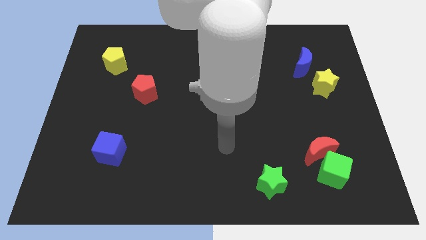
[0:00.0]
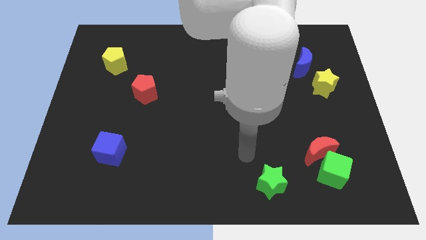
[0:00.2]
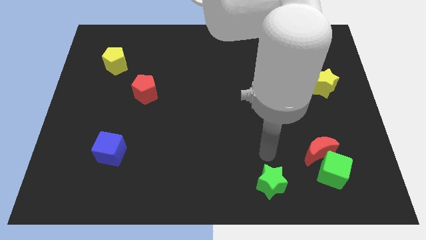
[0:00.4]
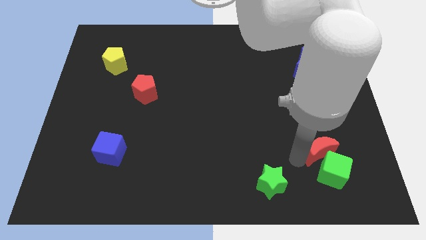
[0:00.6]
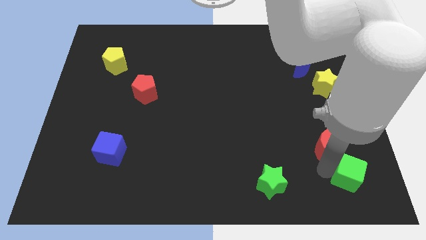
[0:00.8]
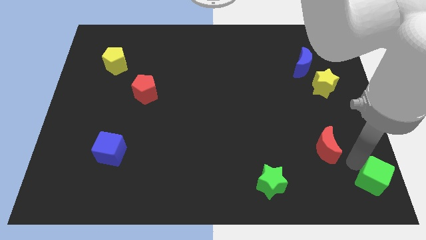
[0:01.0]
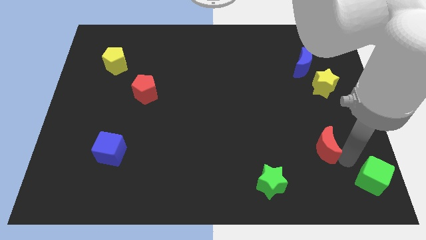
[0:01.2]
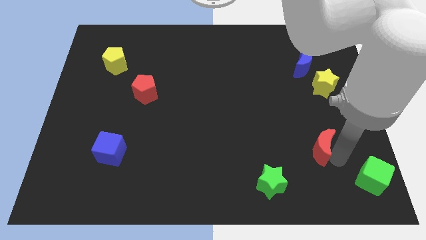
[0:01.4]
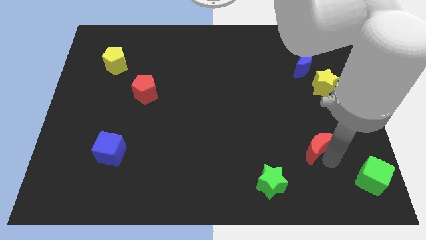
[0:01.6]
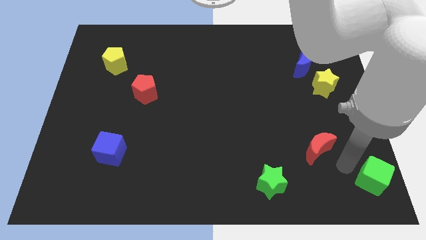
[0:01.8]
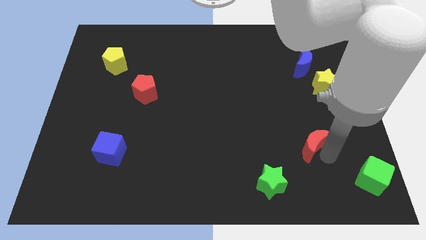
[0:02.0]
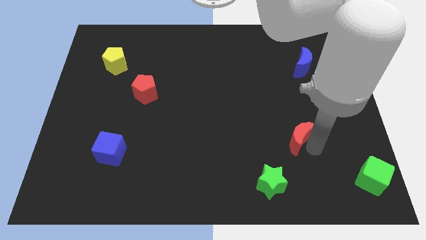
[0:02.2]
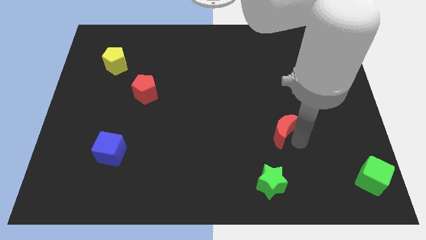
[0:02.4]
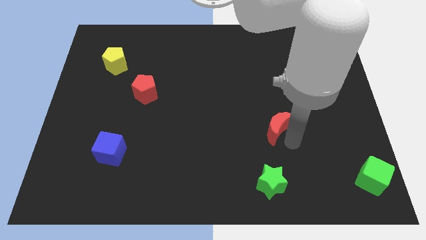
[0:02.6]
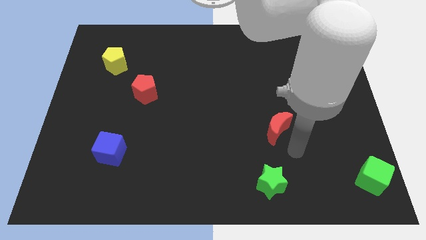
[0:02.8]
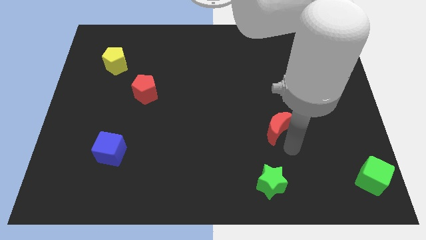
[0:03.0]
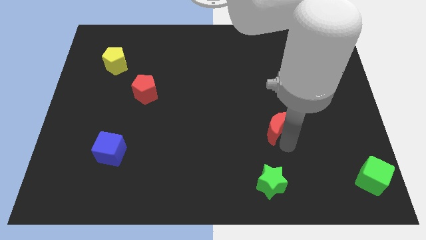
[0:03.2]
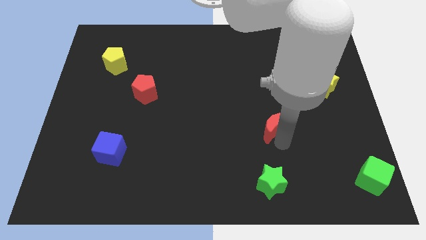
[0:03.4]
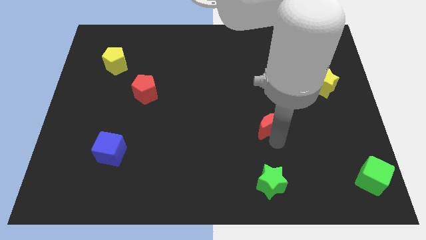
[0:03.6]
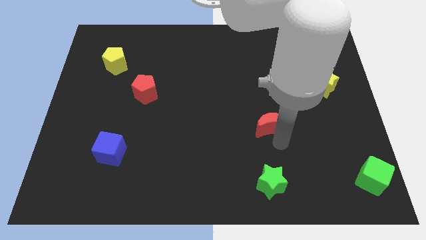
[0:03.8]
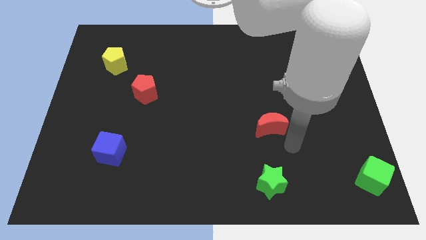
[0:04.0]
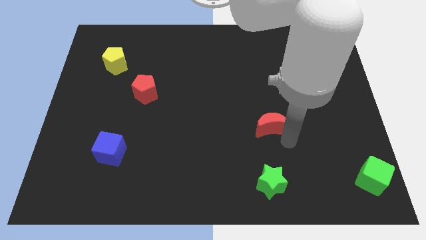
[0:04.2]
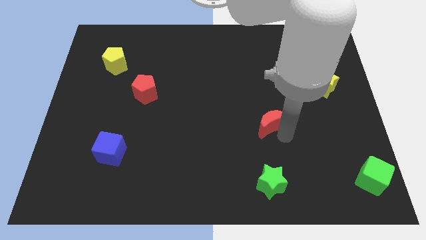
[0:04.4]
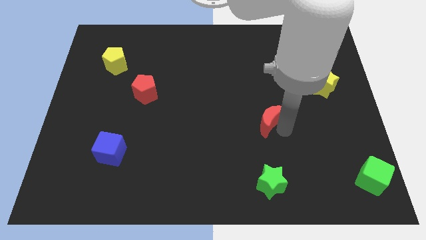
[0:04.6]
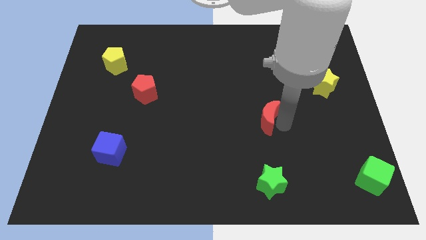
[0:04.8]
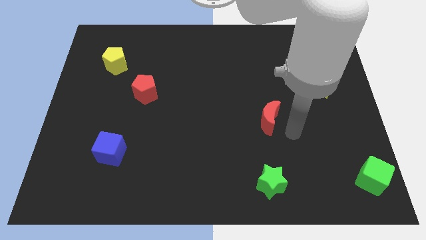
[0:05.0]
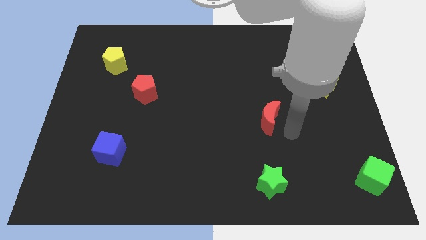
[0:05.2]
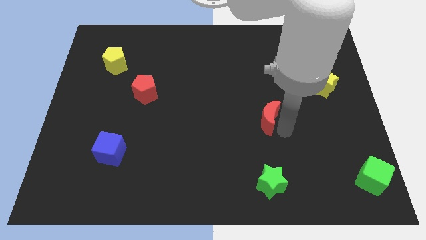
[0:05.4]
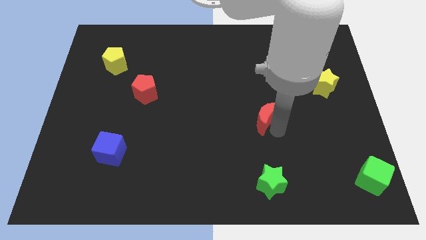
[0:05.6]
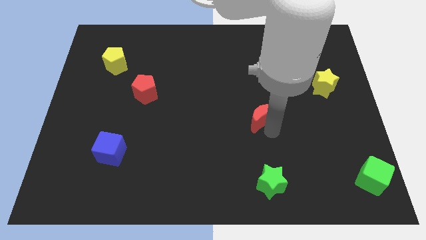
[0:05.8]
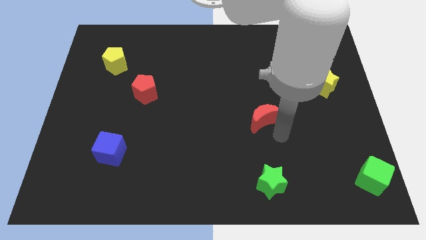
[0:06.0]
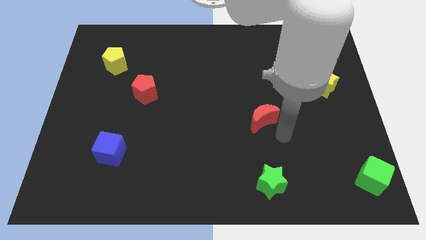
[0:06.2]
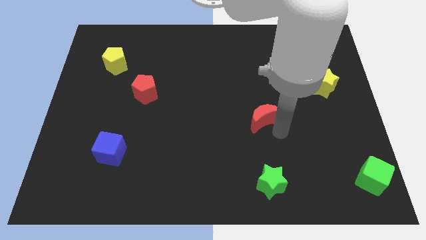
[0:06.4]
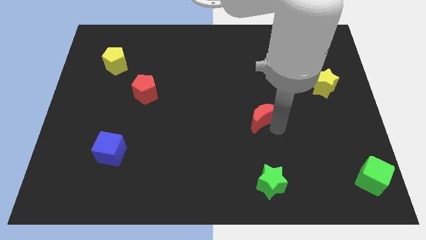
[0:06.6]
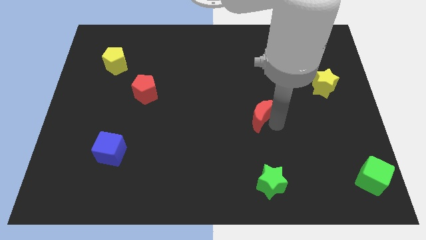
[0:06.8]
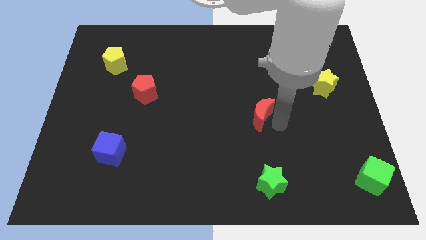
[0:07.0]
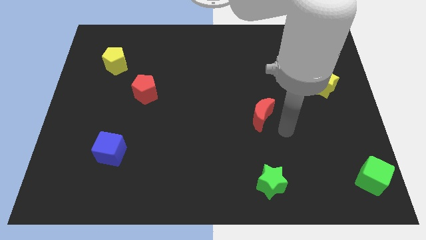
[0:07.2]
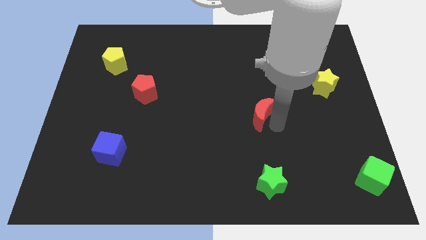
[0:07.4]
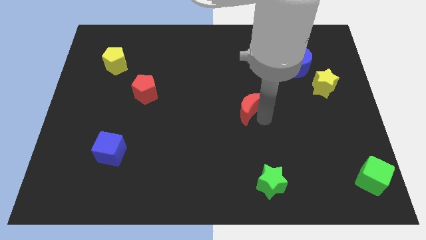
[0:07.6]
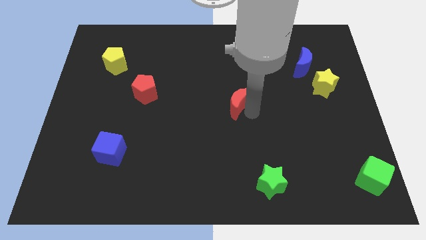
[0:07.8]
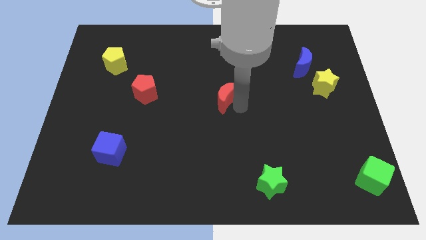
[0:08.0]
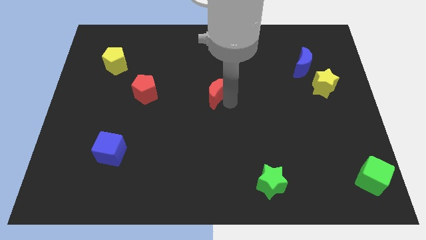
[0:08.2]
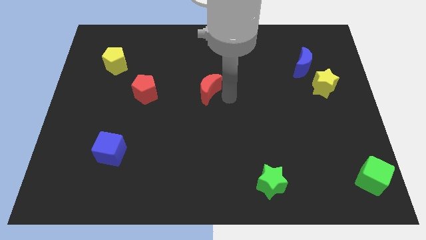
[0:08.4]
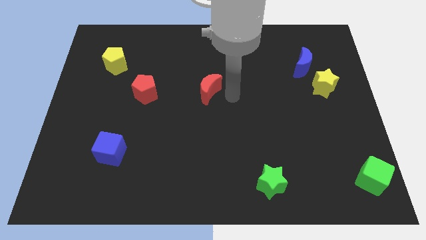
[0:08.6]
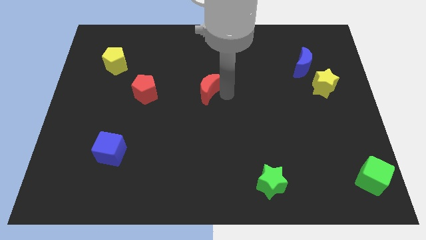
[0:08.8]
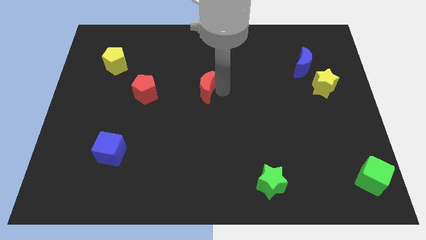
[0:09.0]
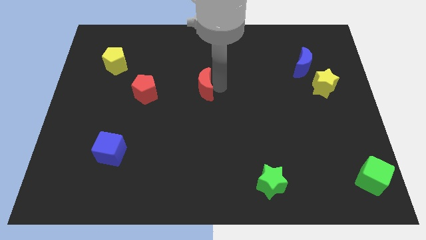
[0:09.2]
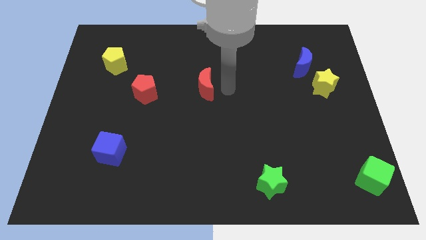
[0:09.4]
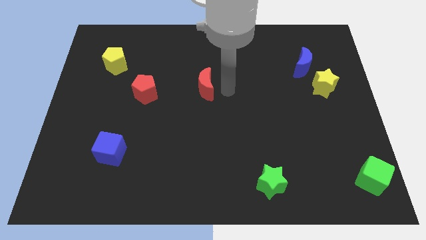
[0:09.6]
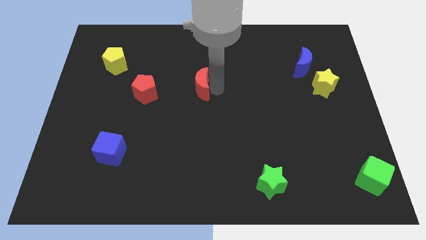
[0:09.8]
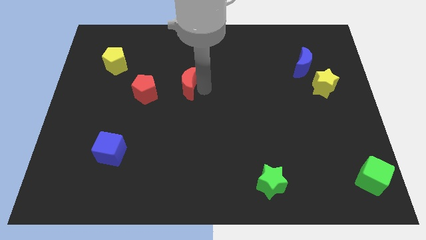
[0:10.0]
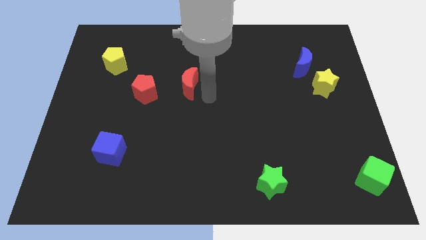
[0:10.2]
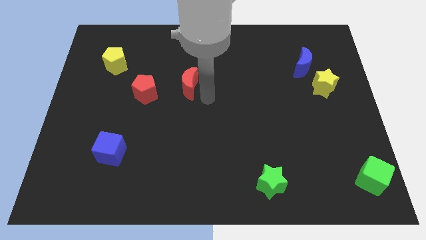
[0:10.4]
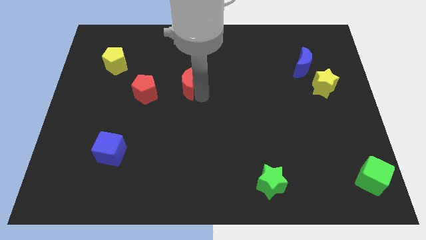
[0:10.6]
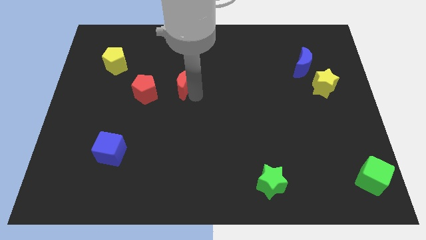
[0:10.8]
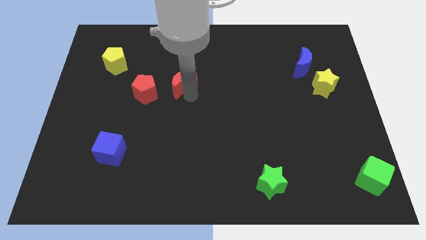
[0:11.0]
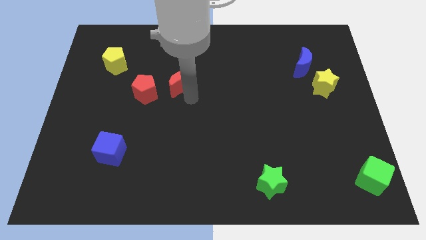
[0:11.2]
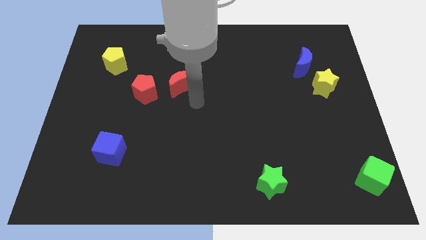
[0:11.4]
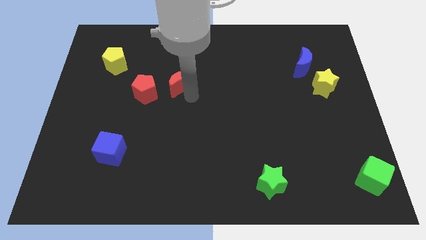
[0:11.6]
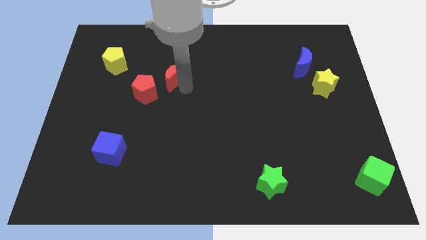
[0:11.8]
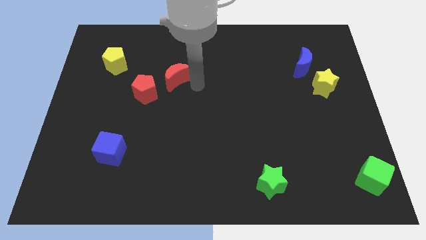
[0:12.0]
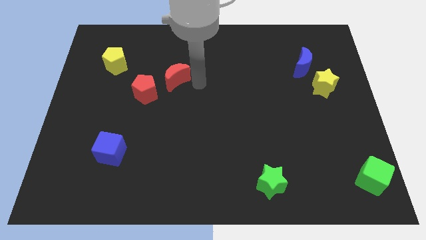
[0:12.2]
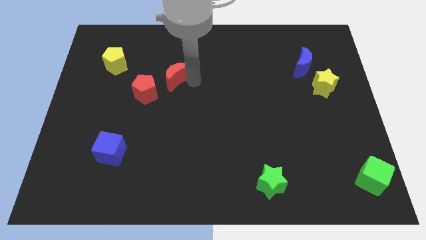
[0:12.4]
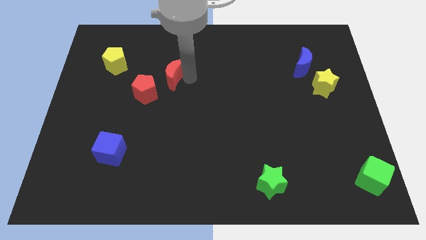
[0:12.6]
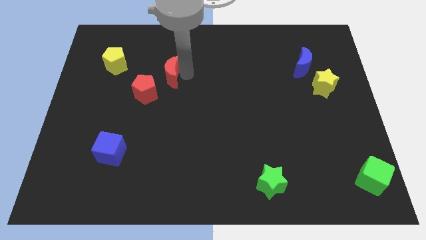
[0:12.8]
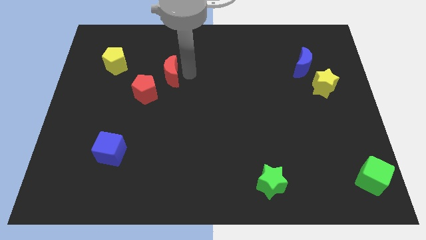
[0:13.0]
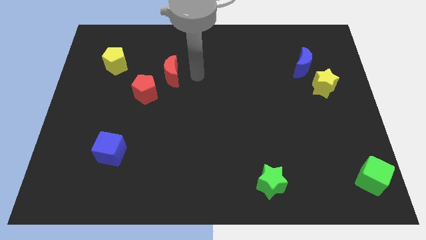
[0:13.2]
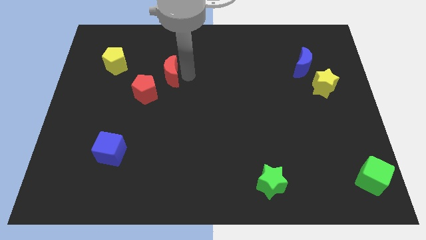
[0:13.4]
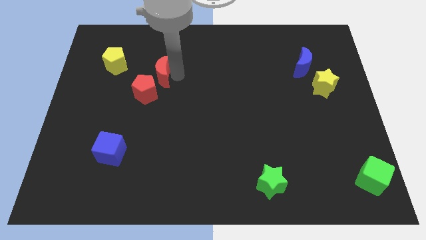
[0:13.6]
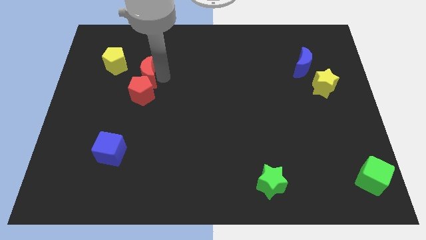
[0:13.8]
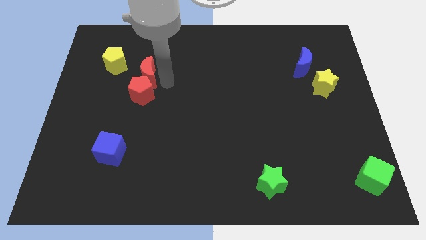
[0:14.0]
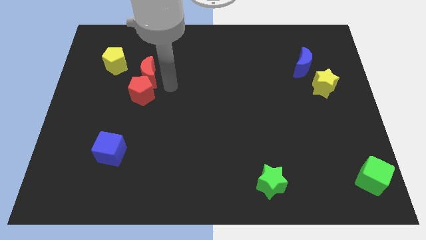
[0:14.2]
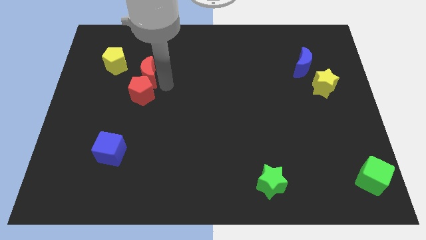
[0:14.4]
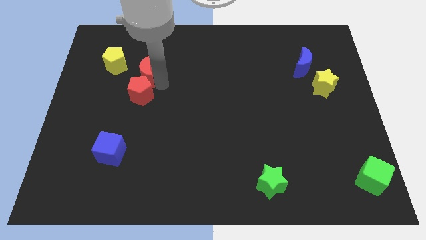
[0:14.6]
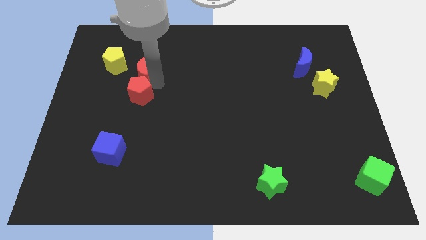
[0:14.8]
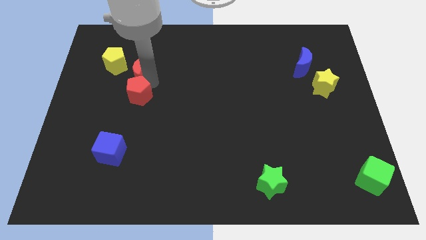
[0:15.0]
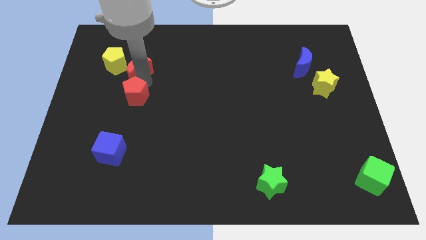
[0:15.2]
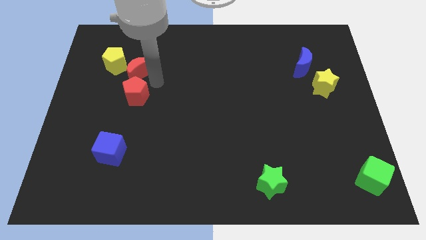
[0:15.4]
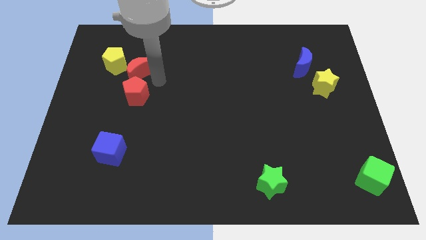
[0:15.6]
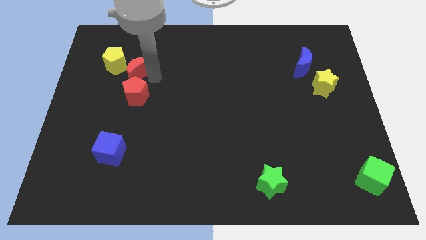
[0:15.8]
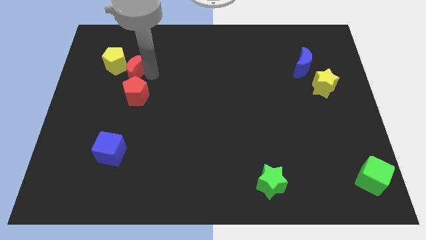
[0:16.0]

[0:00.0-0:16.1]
move the red moon close to the yellow pentagon

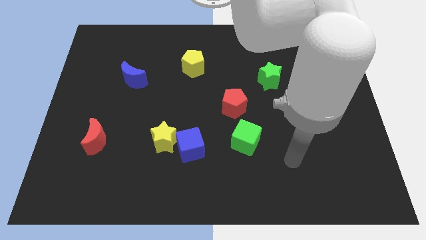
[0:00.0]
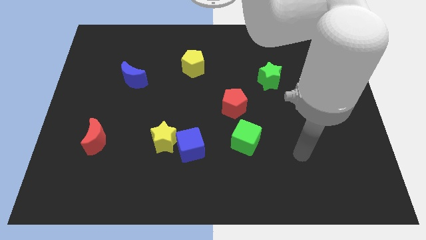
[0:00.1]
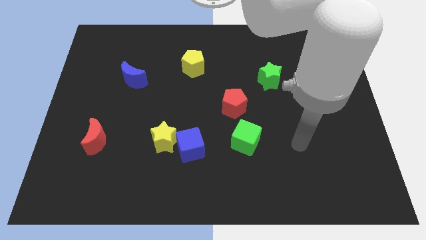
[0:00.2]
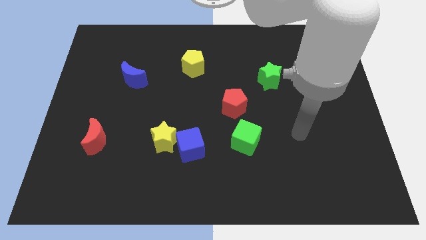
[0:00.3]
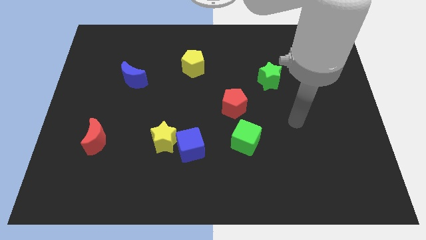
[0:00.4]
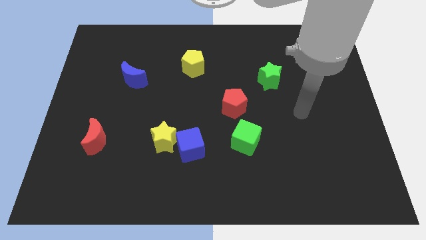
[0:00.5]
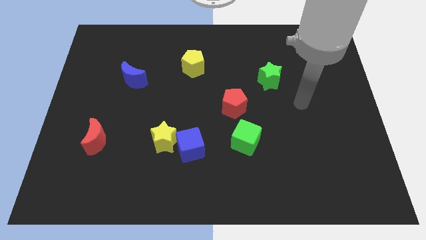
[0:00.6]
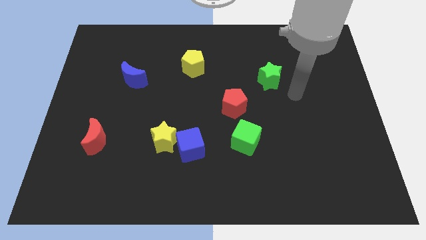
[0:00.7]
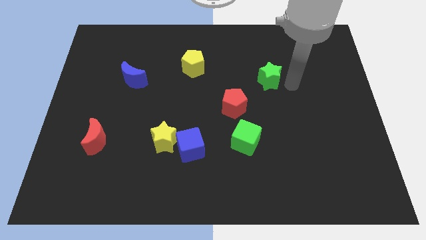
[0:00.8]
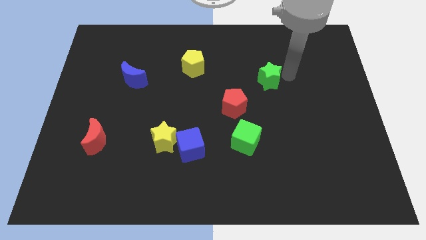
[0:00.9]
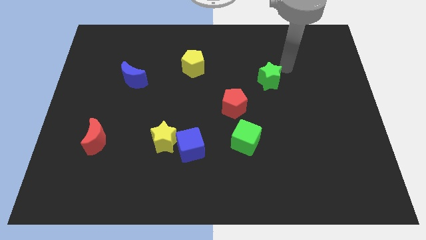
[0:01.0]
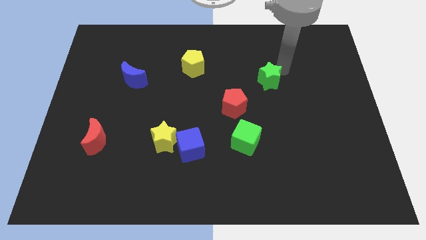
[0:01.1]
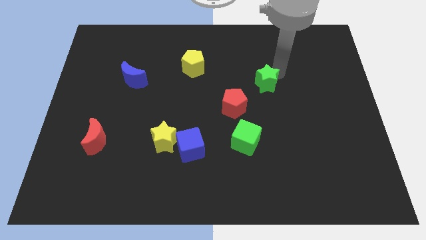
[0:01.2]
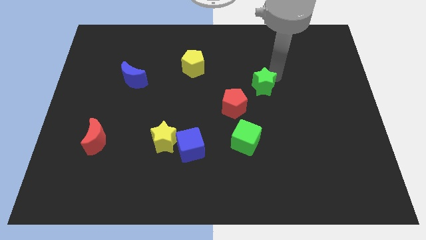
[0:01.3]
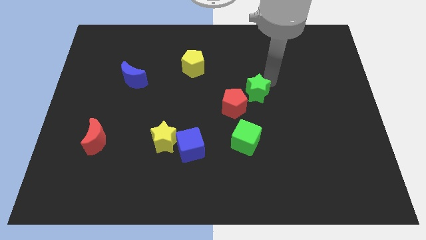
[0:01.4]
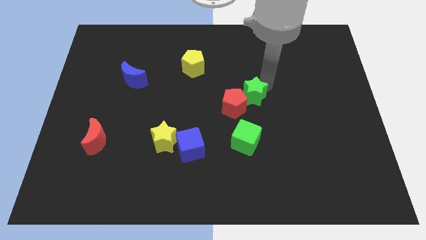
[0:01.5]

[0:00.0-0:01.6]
move the green star close to the red pentagon
